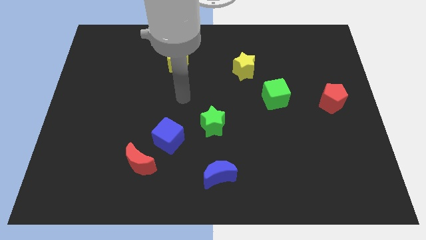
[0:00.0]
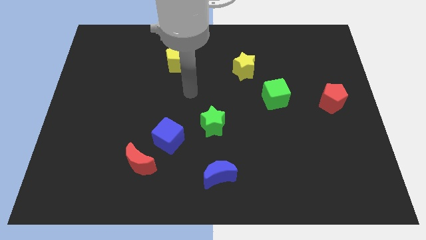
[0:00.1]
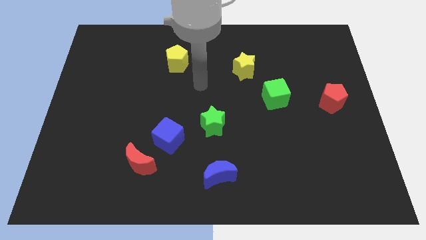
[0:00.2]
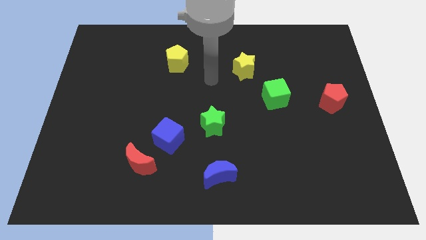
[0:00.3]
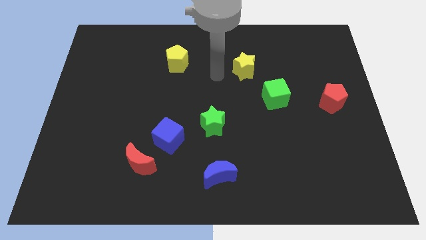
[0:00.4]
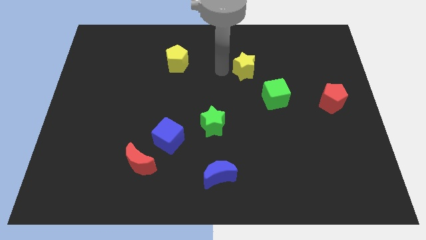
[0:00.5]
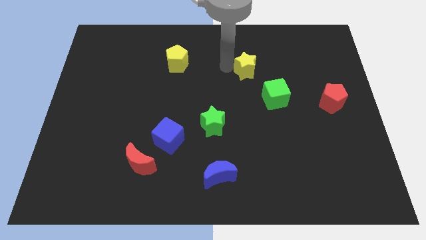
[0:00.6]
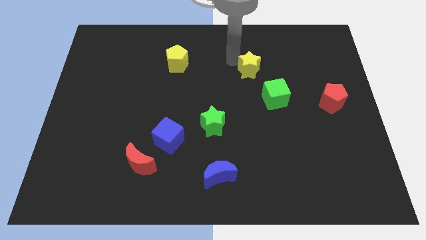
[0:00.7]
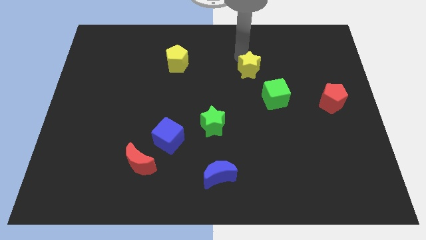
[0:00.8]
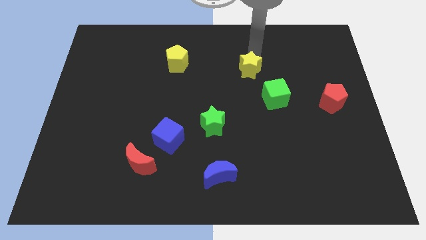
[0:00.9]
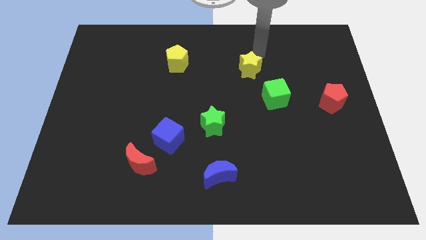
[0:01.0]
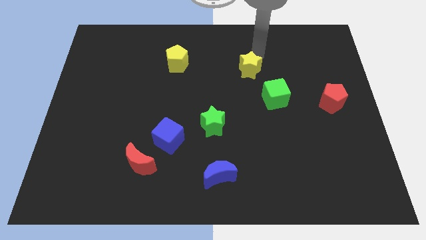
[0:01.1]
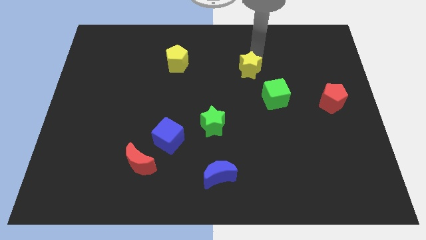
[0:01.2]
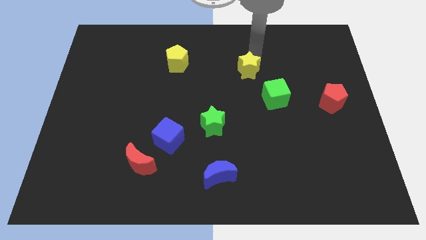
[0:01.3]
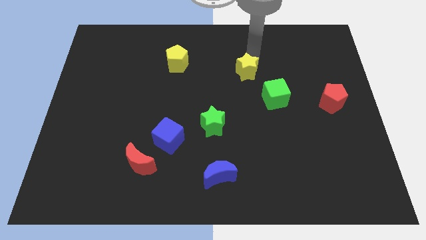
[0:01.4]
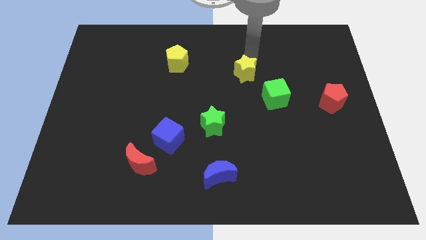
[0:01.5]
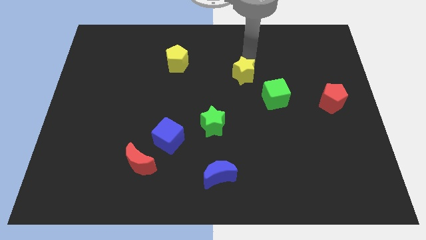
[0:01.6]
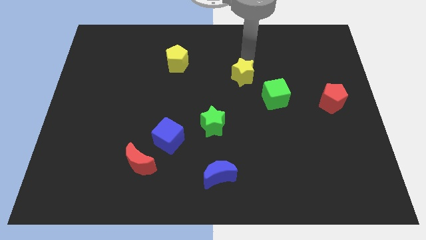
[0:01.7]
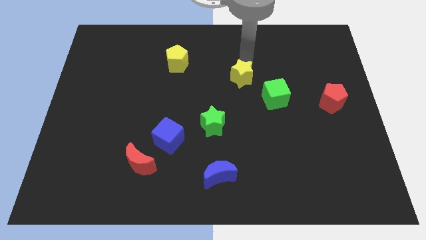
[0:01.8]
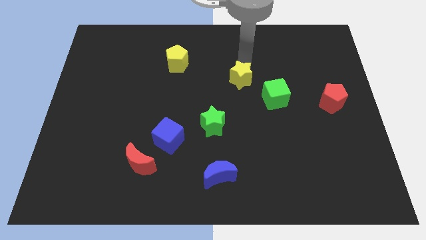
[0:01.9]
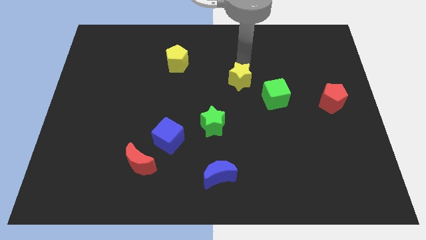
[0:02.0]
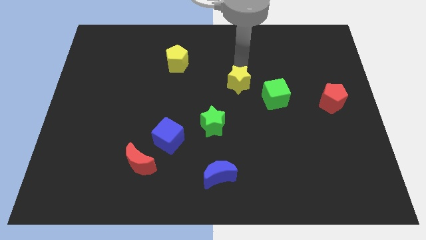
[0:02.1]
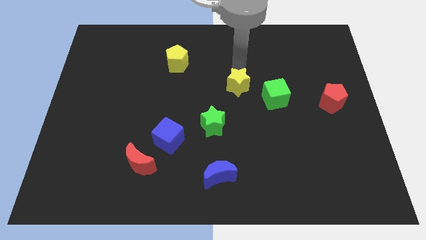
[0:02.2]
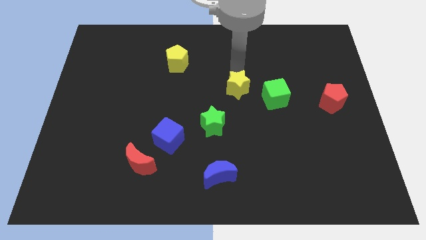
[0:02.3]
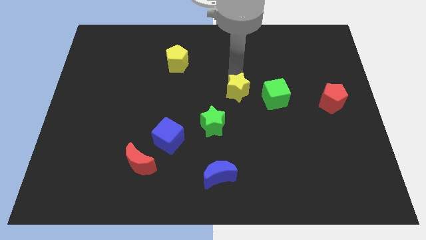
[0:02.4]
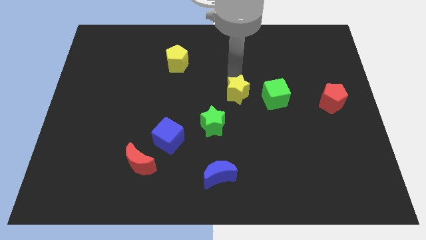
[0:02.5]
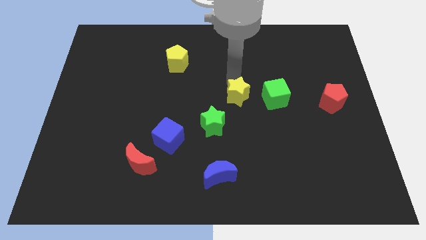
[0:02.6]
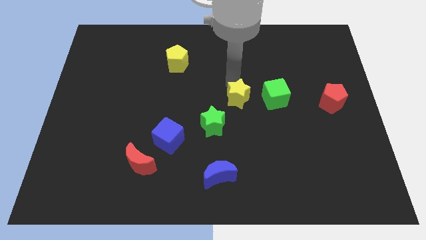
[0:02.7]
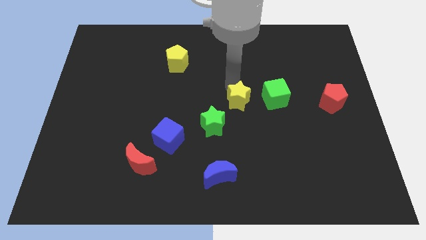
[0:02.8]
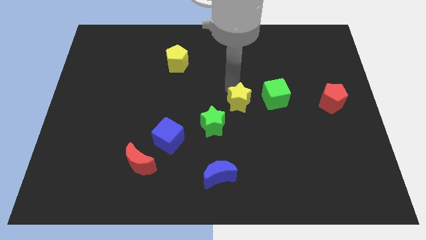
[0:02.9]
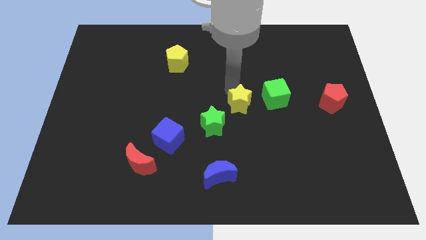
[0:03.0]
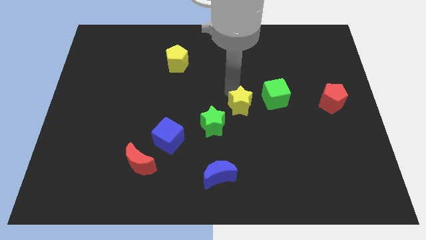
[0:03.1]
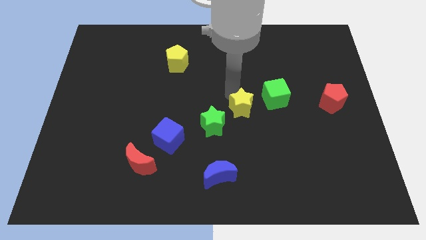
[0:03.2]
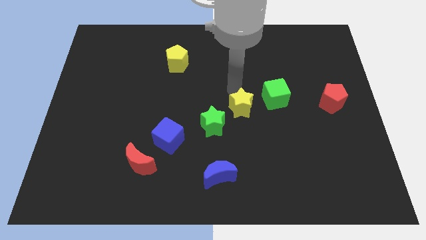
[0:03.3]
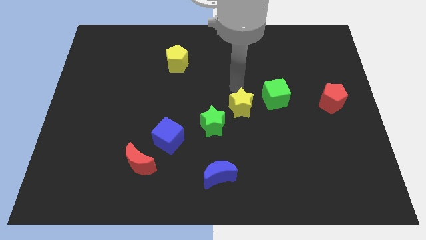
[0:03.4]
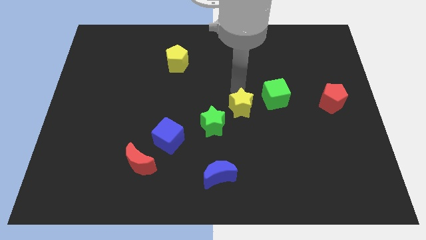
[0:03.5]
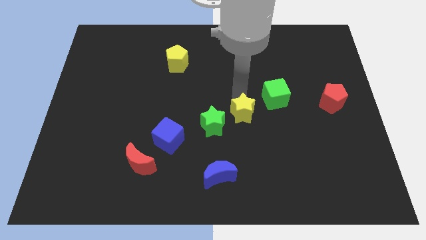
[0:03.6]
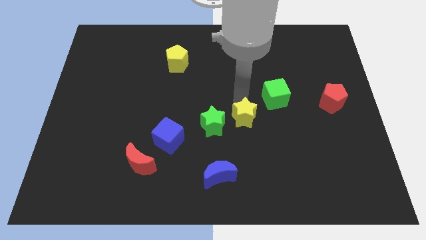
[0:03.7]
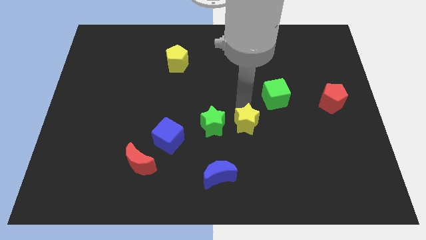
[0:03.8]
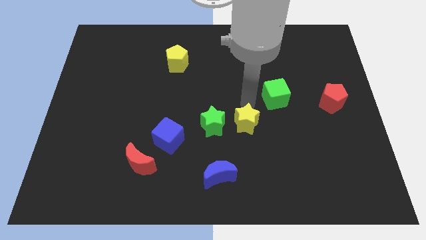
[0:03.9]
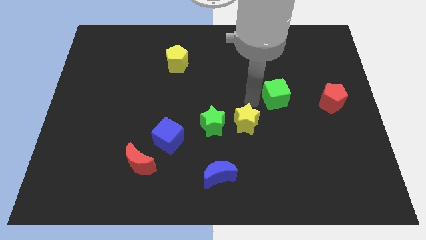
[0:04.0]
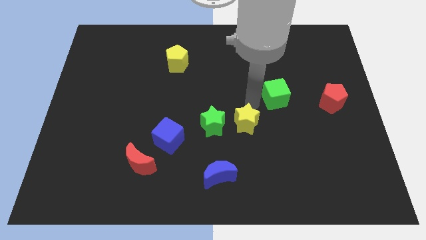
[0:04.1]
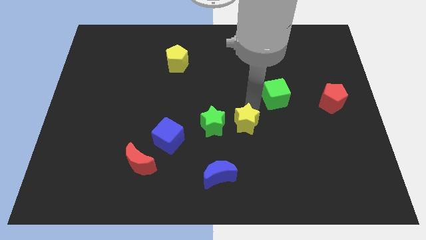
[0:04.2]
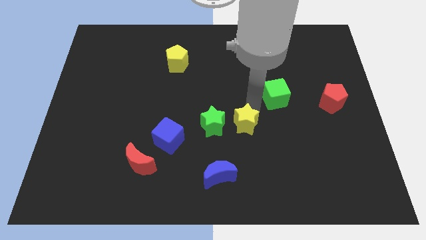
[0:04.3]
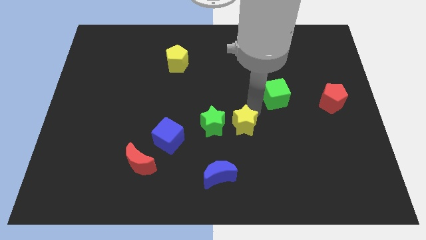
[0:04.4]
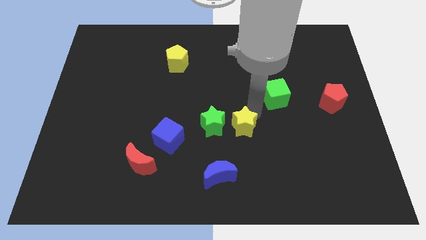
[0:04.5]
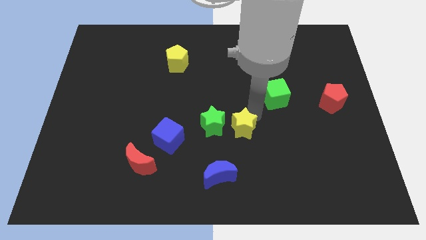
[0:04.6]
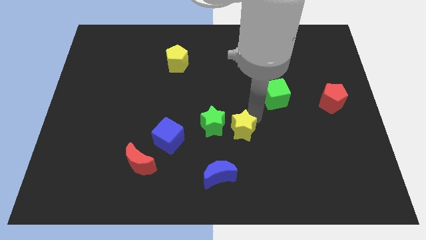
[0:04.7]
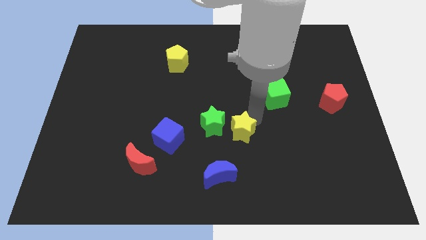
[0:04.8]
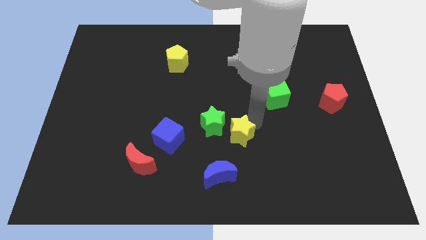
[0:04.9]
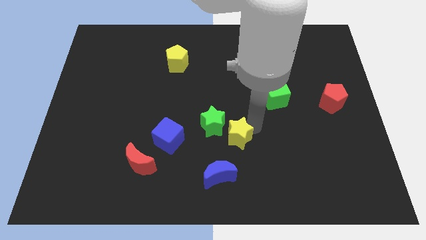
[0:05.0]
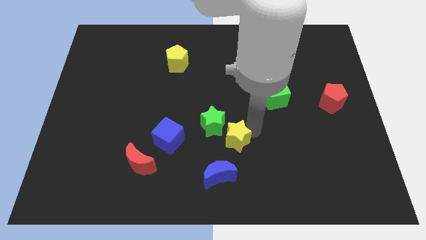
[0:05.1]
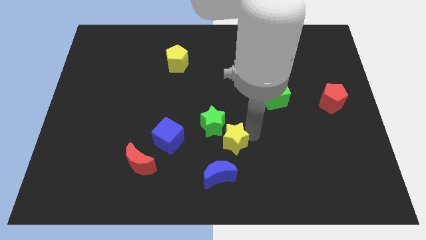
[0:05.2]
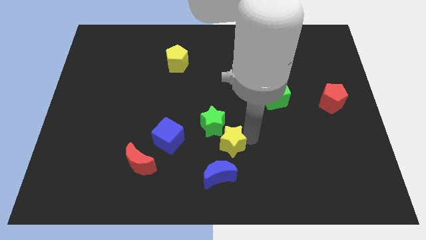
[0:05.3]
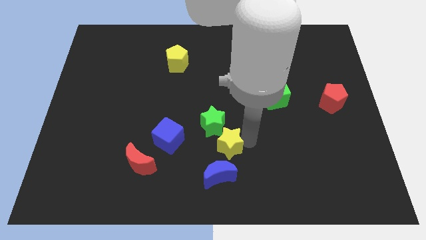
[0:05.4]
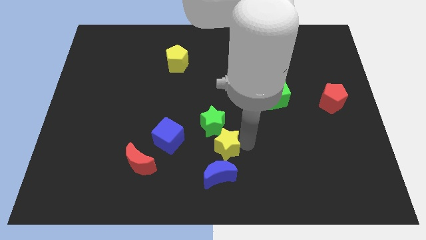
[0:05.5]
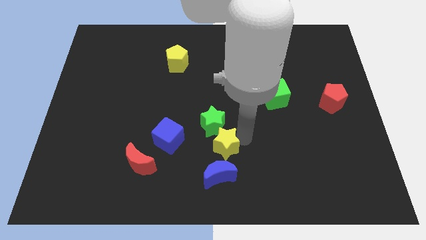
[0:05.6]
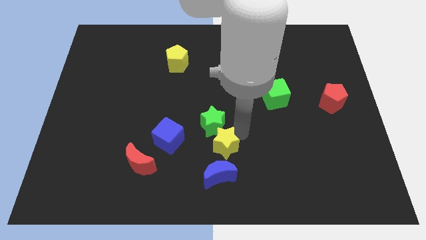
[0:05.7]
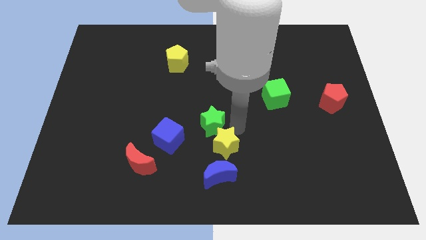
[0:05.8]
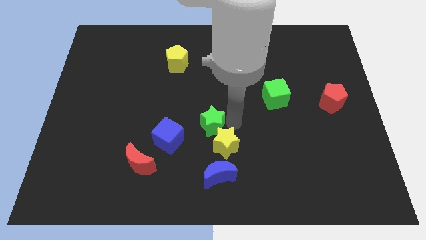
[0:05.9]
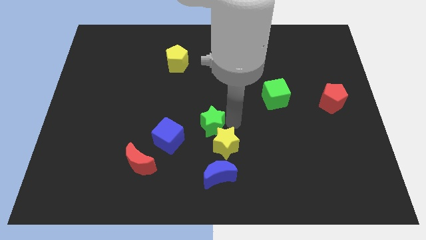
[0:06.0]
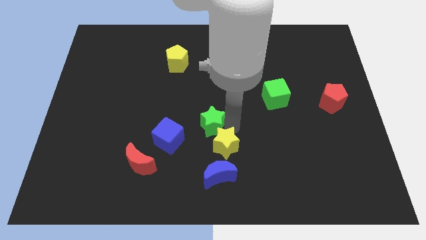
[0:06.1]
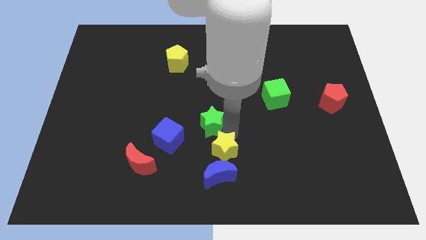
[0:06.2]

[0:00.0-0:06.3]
slide the yellow star close to the blue moon

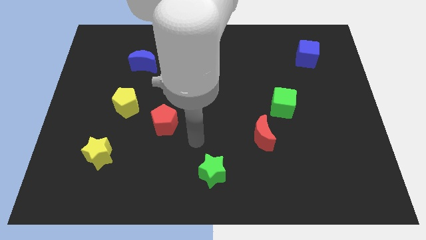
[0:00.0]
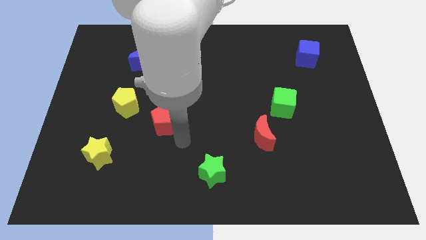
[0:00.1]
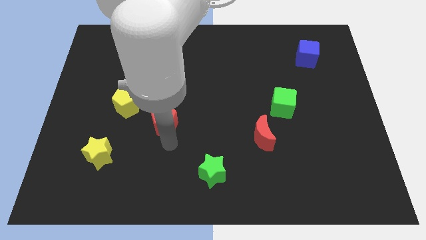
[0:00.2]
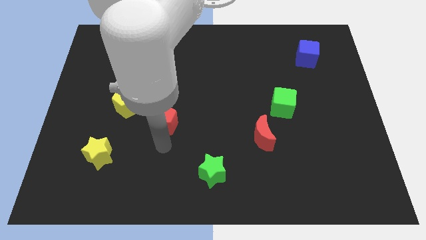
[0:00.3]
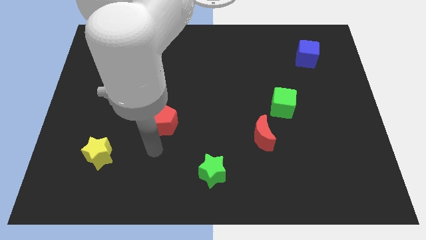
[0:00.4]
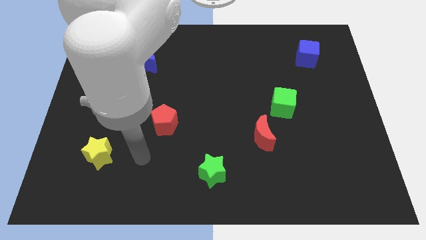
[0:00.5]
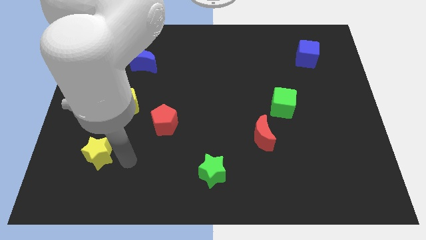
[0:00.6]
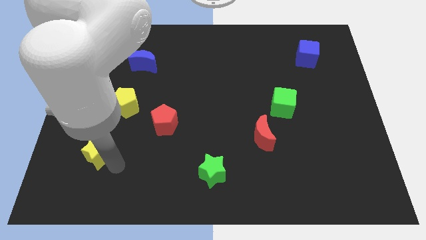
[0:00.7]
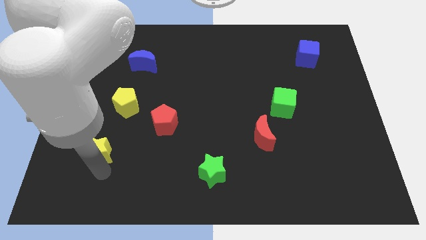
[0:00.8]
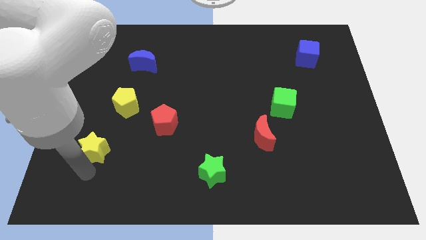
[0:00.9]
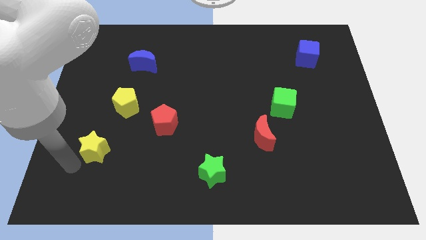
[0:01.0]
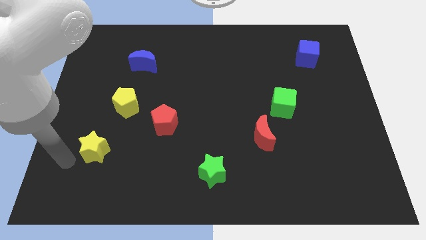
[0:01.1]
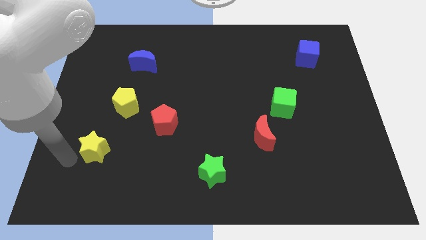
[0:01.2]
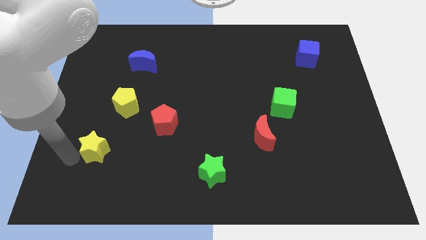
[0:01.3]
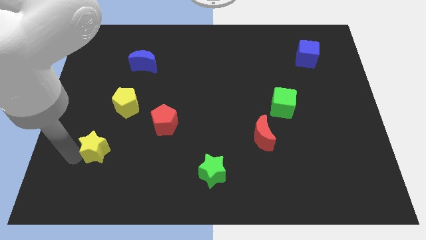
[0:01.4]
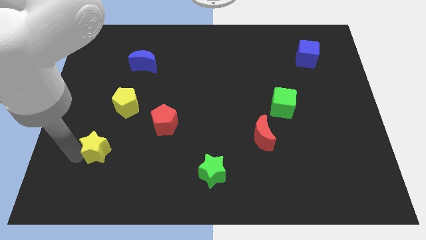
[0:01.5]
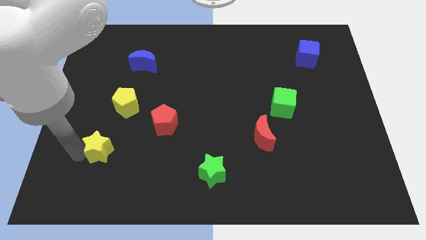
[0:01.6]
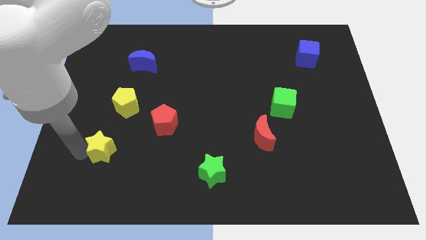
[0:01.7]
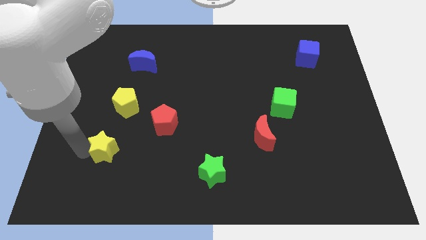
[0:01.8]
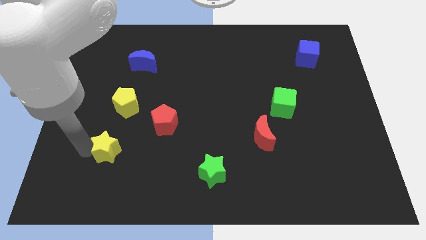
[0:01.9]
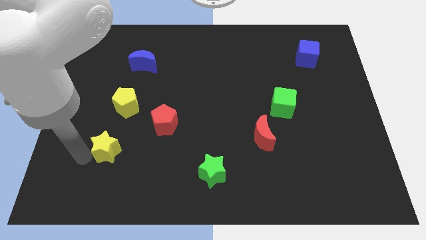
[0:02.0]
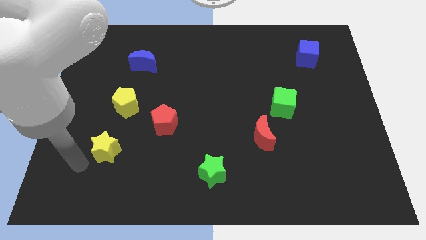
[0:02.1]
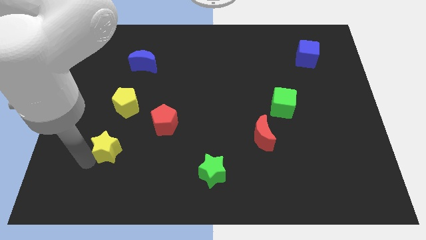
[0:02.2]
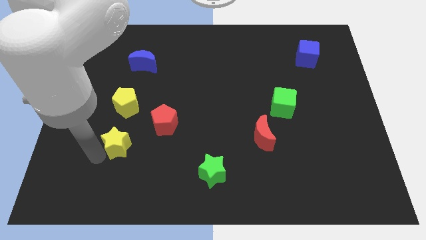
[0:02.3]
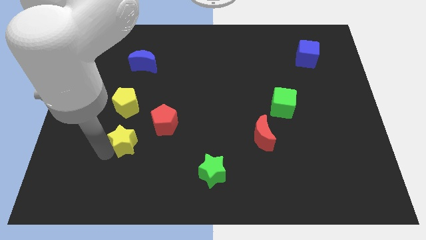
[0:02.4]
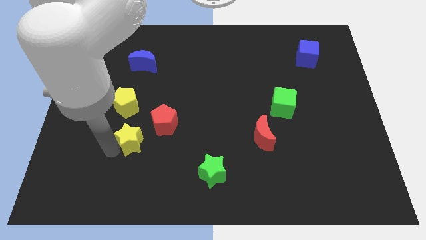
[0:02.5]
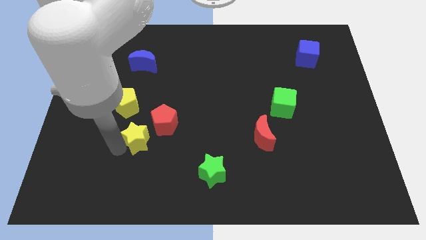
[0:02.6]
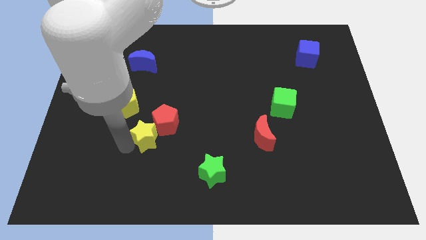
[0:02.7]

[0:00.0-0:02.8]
move the yellow star close to the red pentagon
